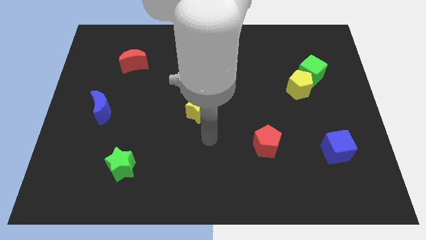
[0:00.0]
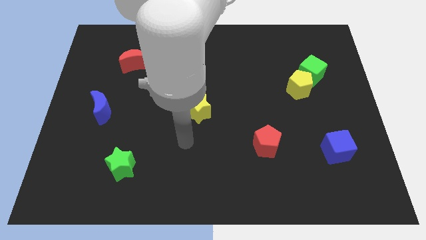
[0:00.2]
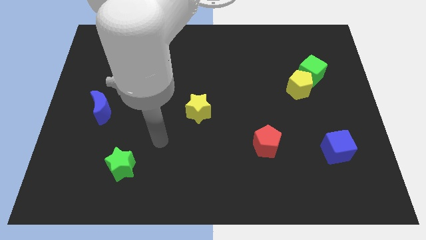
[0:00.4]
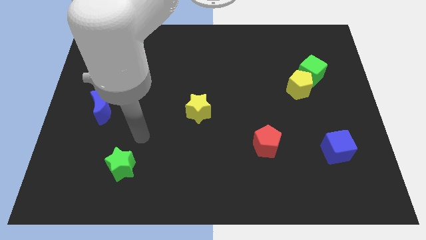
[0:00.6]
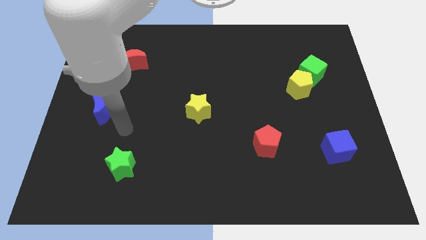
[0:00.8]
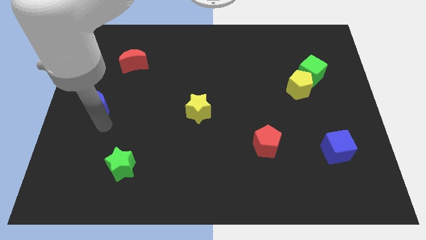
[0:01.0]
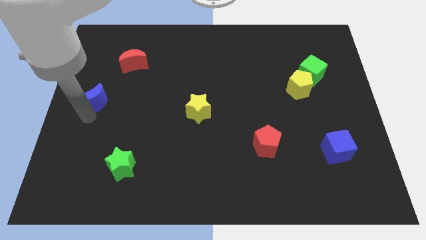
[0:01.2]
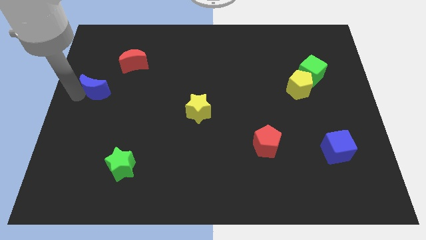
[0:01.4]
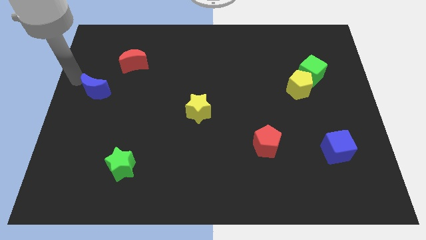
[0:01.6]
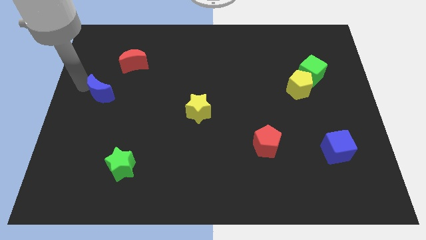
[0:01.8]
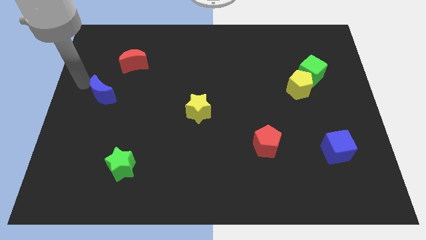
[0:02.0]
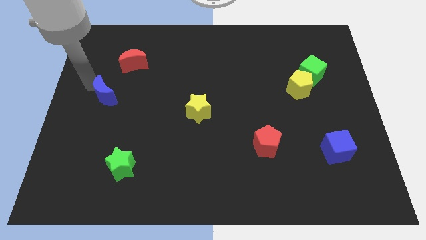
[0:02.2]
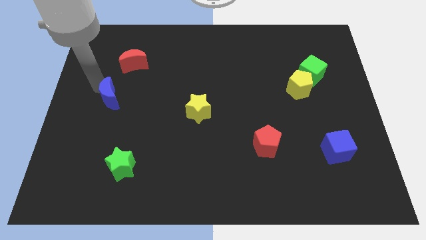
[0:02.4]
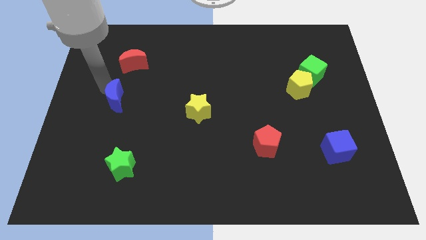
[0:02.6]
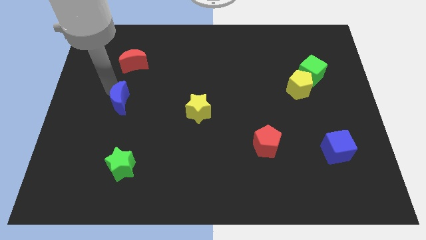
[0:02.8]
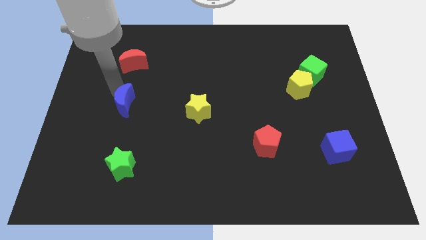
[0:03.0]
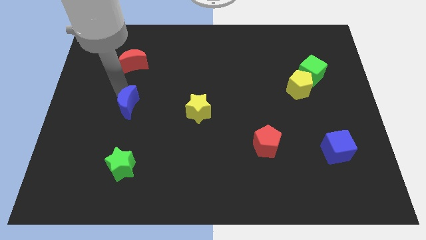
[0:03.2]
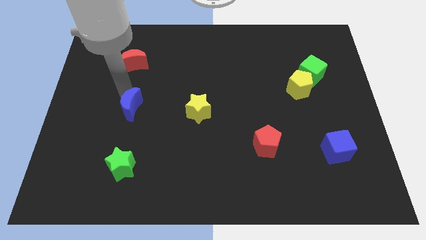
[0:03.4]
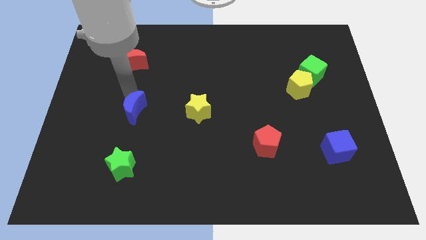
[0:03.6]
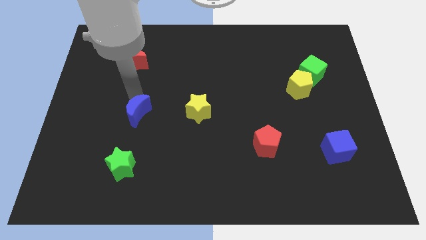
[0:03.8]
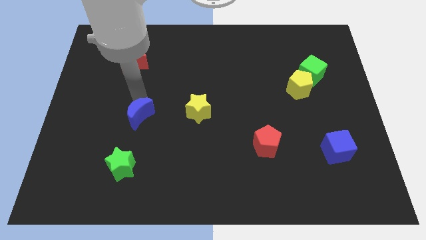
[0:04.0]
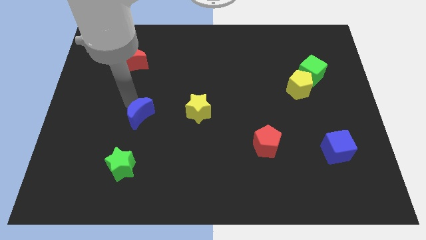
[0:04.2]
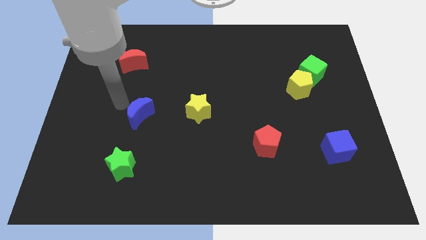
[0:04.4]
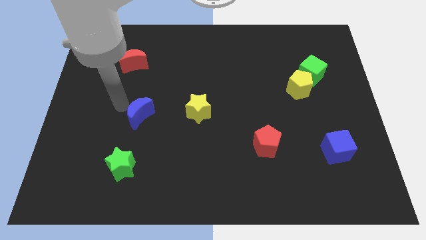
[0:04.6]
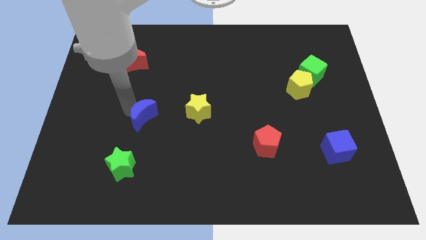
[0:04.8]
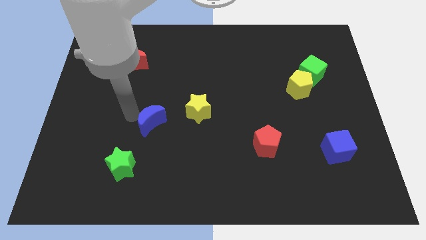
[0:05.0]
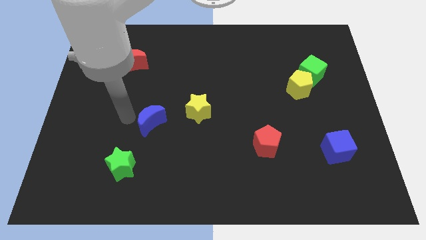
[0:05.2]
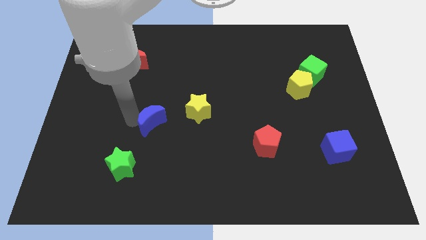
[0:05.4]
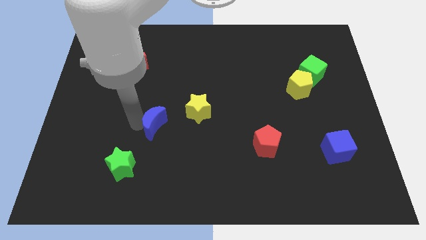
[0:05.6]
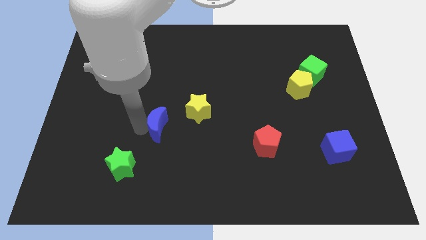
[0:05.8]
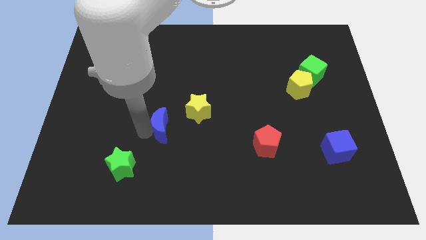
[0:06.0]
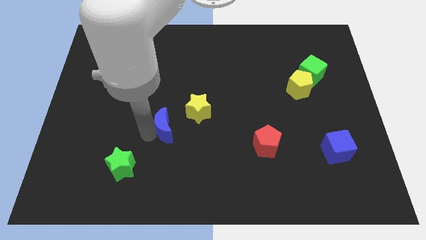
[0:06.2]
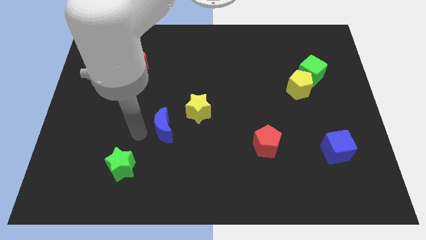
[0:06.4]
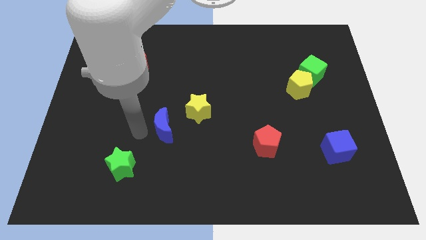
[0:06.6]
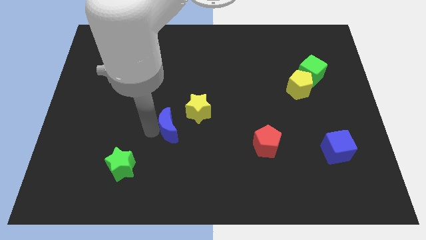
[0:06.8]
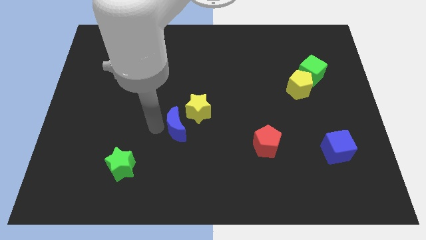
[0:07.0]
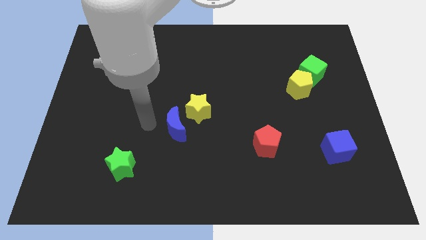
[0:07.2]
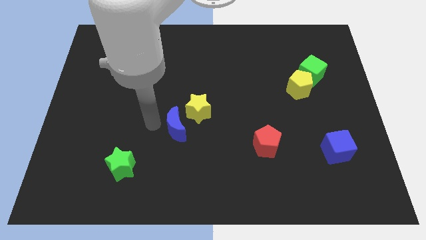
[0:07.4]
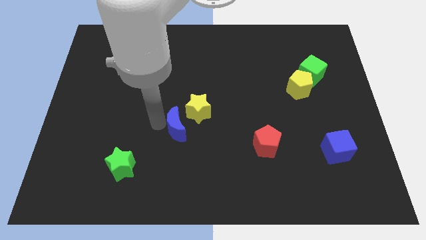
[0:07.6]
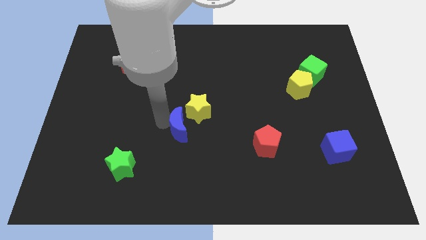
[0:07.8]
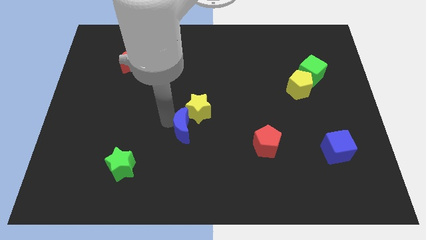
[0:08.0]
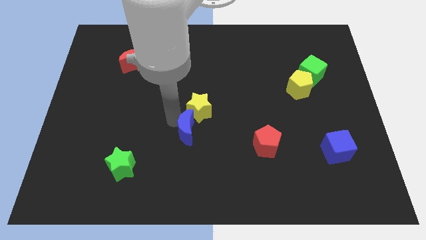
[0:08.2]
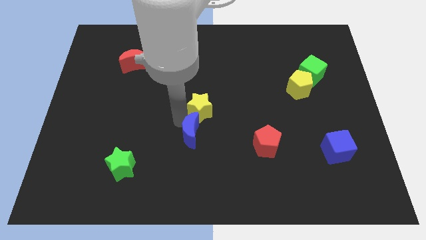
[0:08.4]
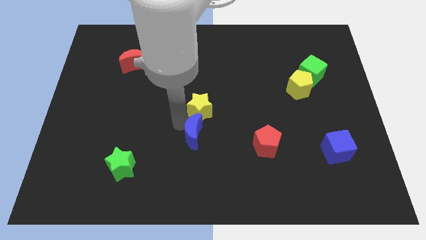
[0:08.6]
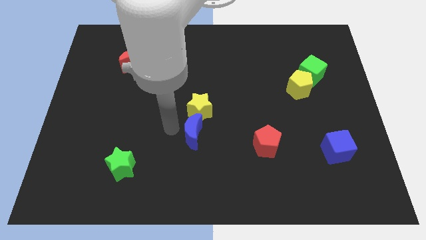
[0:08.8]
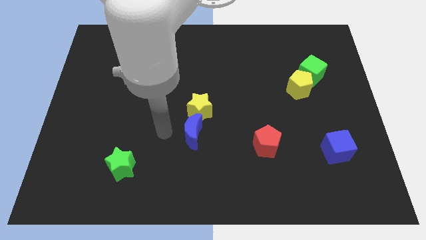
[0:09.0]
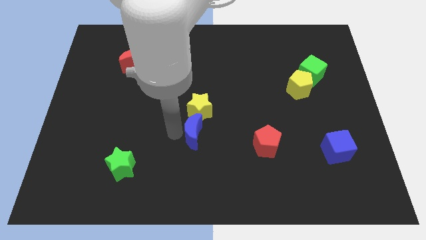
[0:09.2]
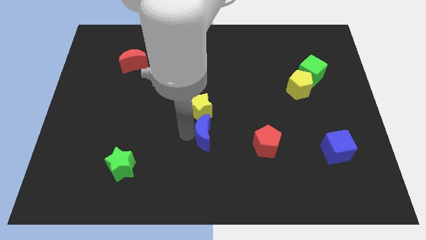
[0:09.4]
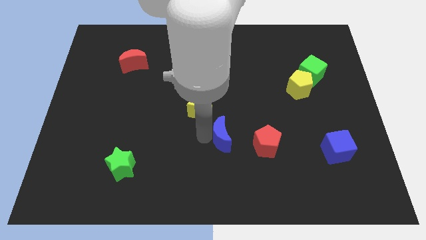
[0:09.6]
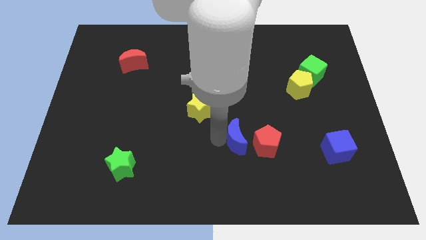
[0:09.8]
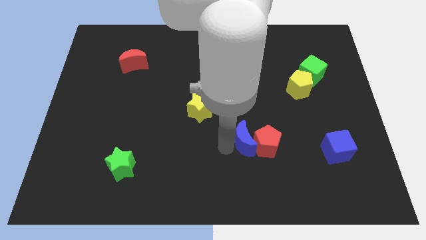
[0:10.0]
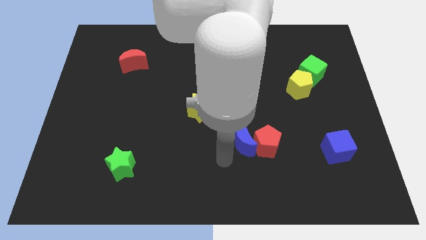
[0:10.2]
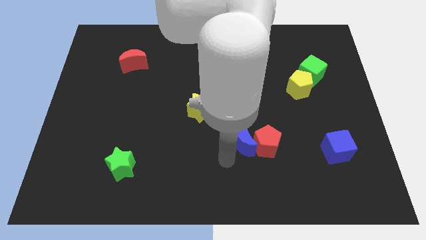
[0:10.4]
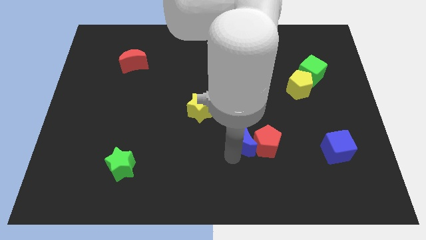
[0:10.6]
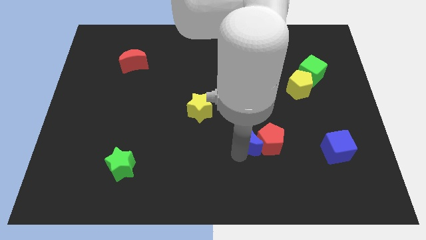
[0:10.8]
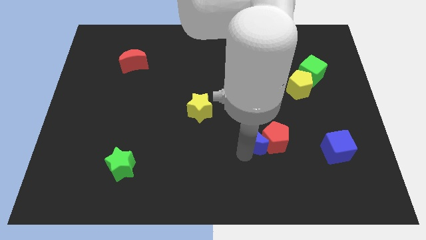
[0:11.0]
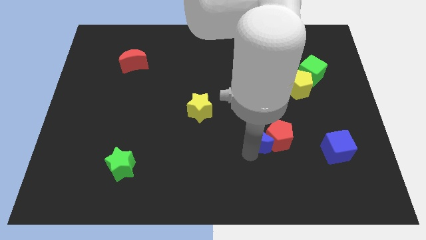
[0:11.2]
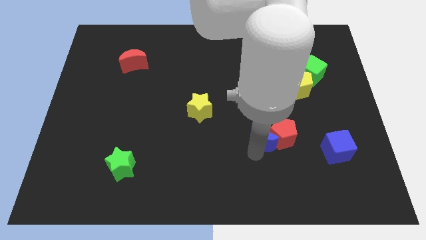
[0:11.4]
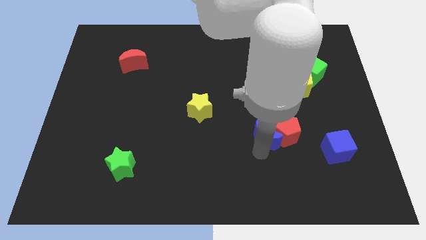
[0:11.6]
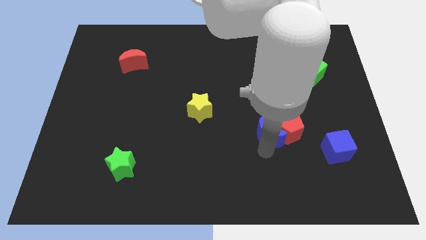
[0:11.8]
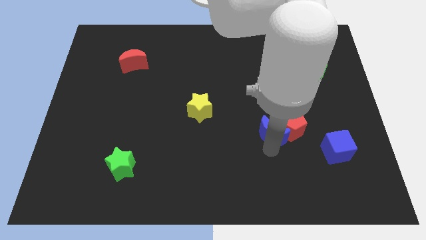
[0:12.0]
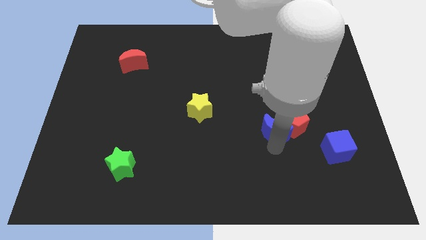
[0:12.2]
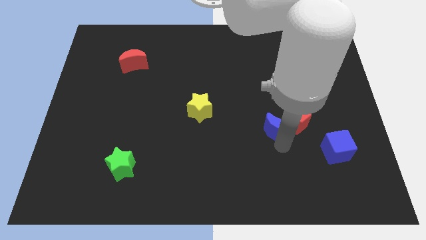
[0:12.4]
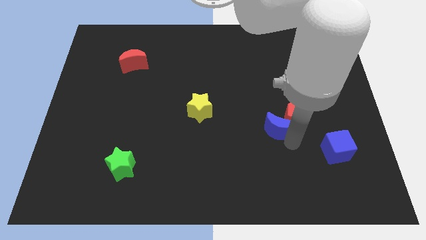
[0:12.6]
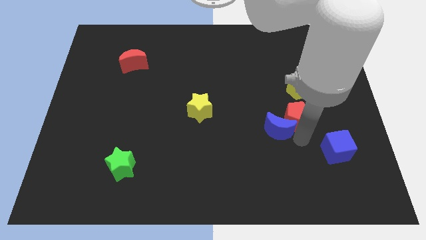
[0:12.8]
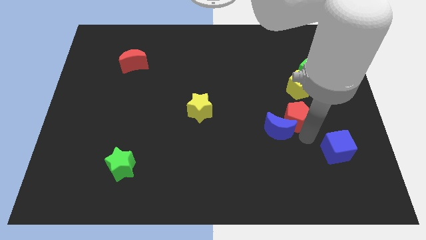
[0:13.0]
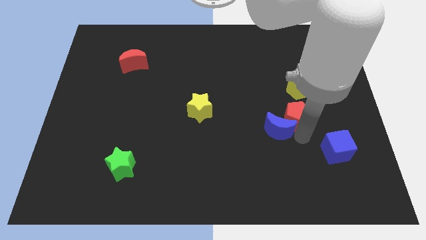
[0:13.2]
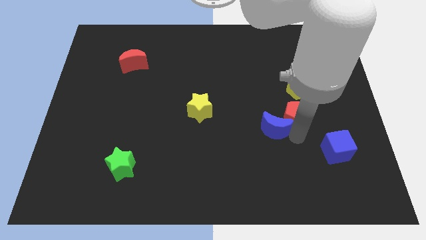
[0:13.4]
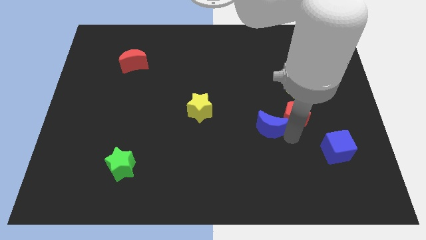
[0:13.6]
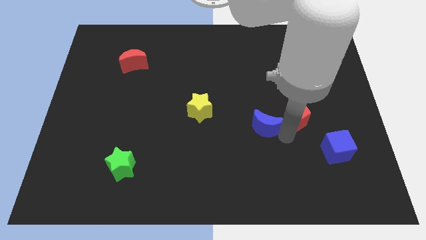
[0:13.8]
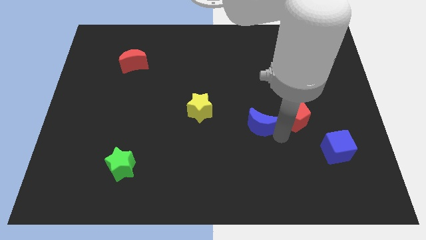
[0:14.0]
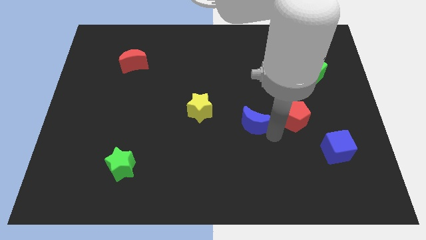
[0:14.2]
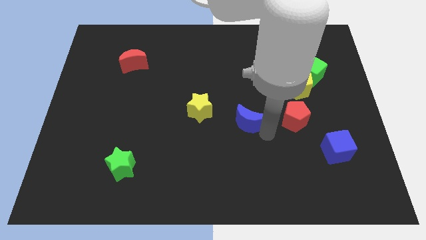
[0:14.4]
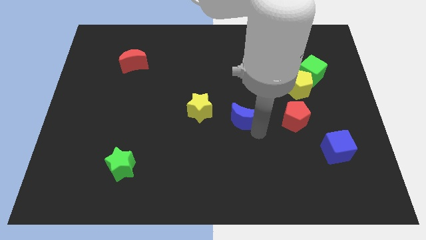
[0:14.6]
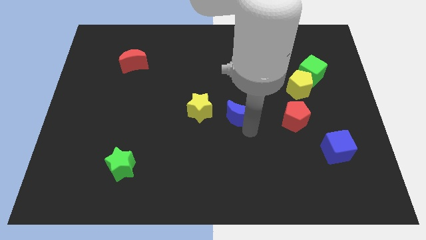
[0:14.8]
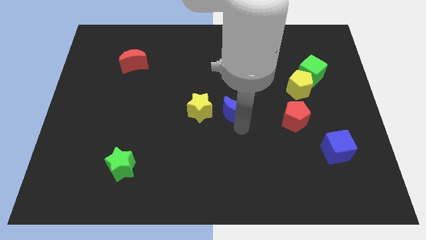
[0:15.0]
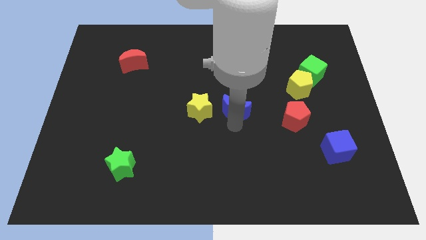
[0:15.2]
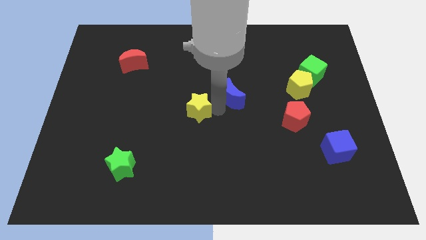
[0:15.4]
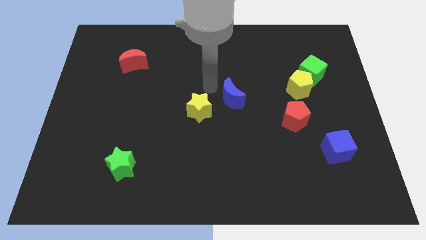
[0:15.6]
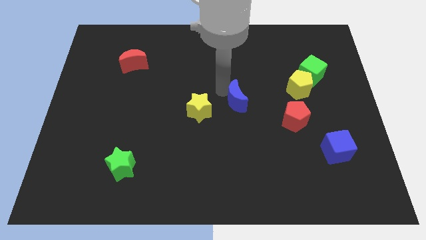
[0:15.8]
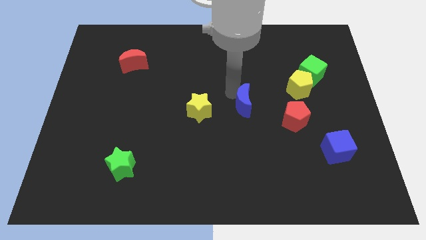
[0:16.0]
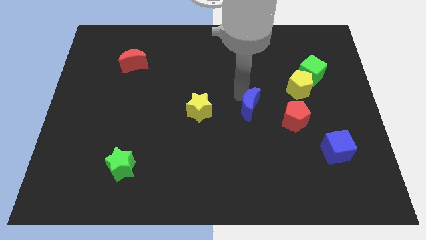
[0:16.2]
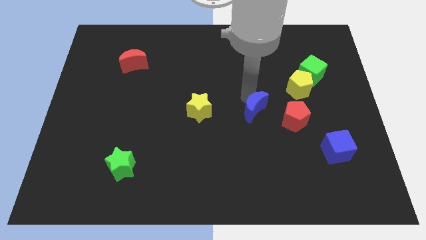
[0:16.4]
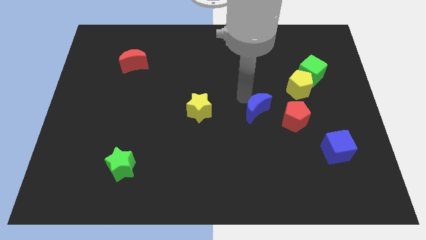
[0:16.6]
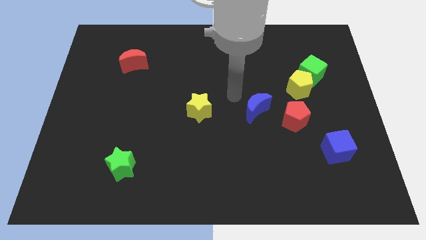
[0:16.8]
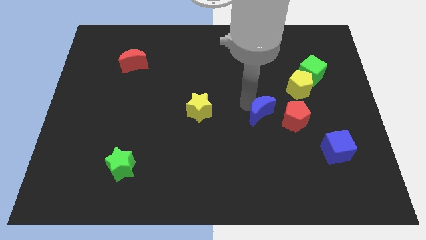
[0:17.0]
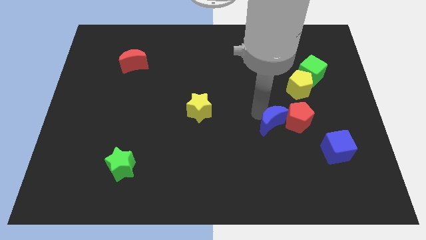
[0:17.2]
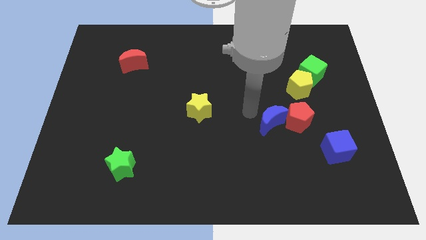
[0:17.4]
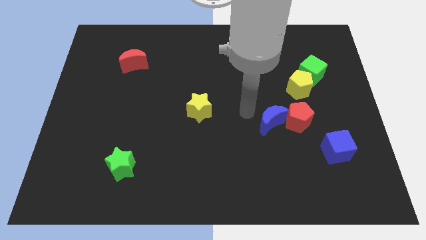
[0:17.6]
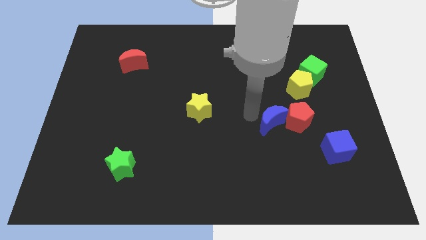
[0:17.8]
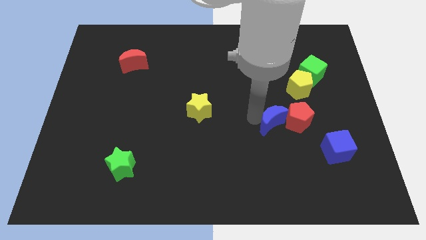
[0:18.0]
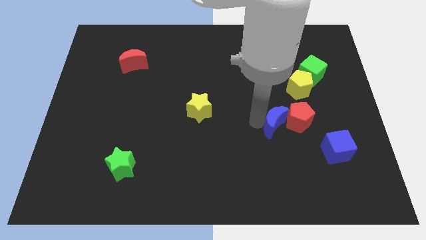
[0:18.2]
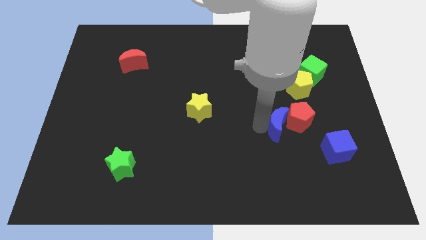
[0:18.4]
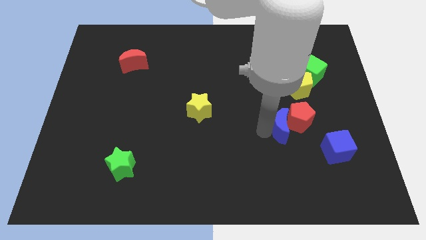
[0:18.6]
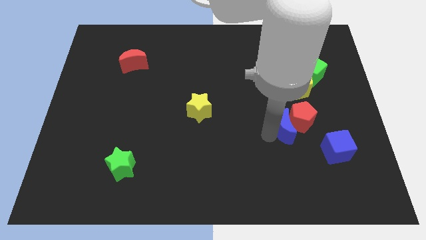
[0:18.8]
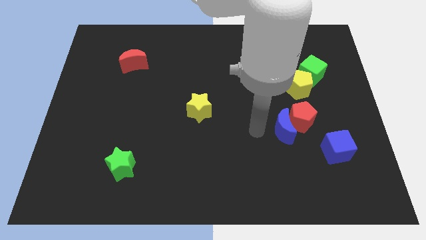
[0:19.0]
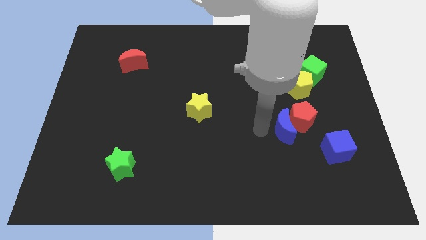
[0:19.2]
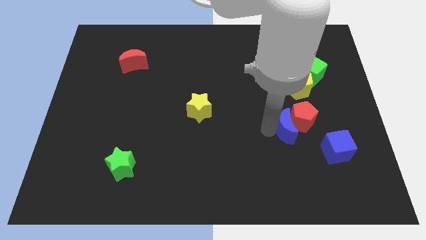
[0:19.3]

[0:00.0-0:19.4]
put the blue moon diagonally up and to the left of the blue cube
